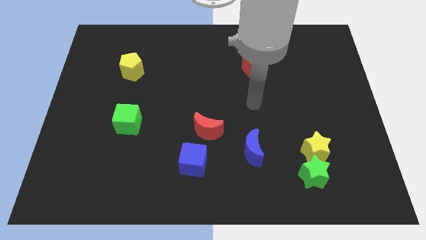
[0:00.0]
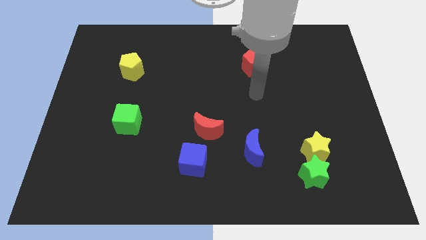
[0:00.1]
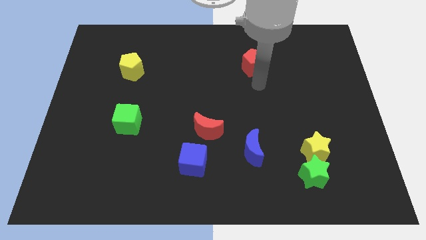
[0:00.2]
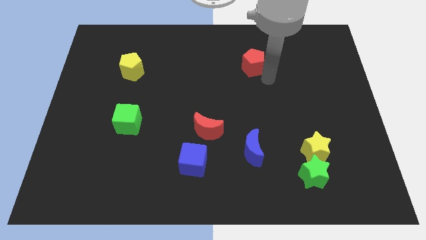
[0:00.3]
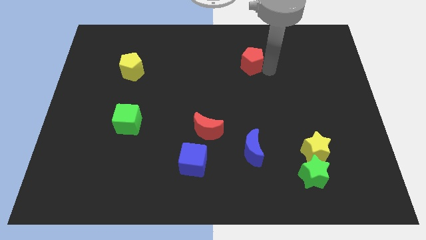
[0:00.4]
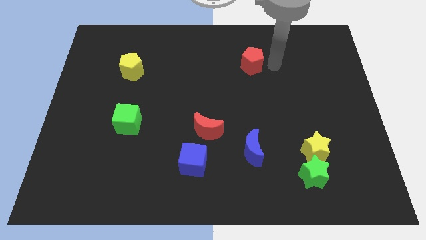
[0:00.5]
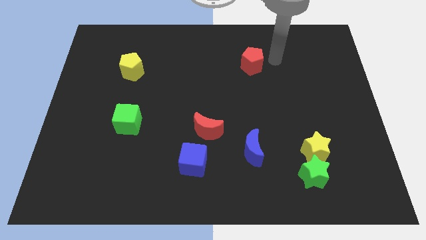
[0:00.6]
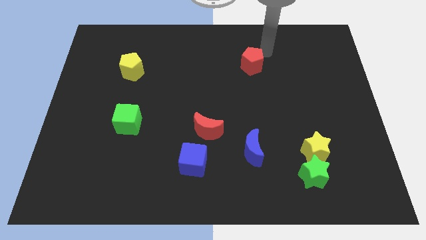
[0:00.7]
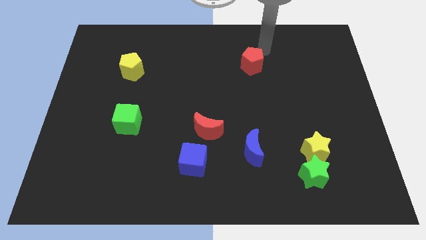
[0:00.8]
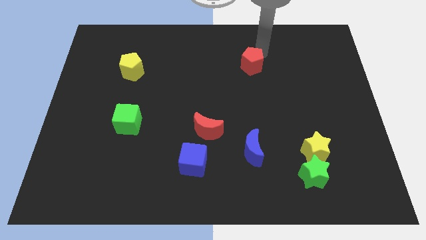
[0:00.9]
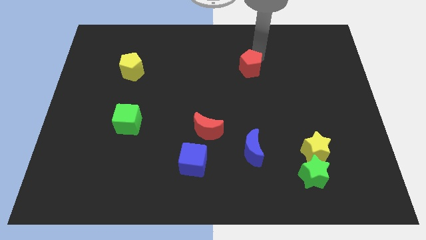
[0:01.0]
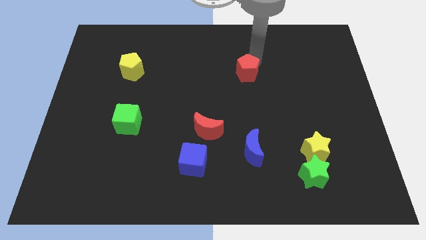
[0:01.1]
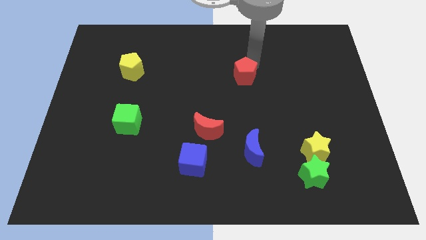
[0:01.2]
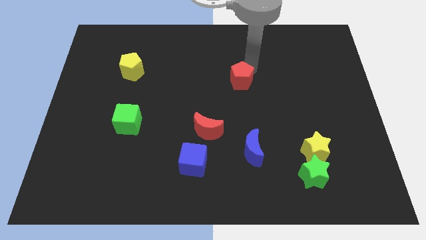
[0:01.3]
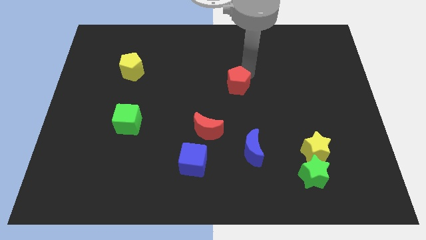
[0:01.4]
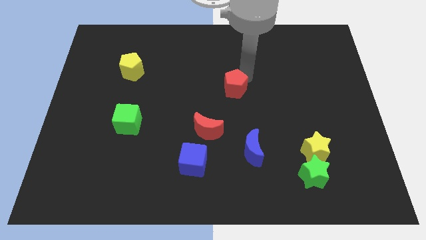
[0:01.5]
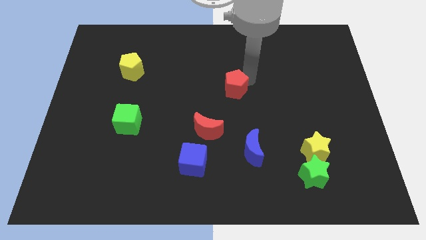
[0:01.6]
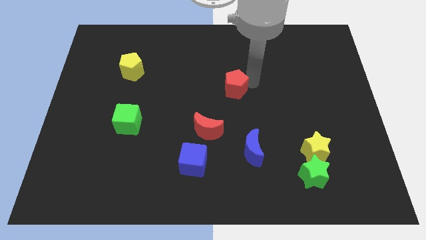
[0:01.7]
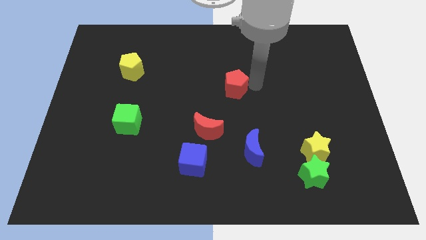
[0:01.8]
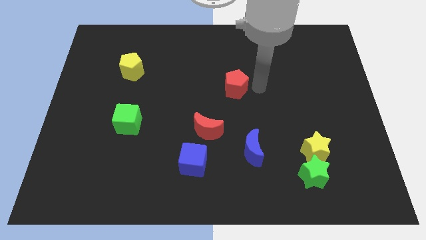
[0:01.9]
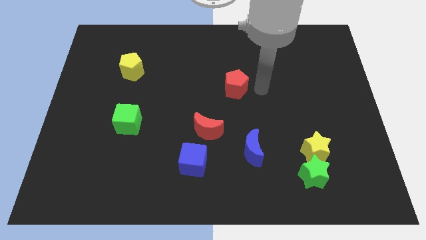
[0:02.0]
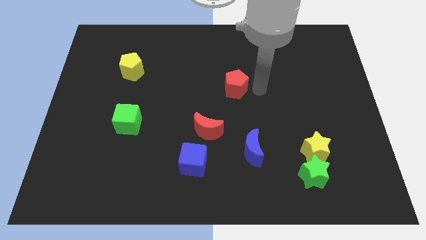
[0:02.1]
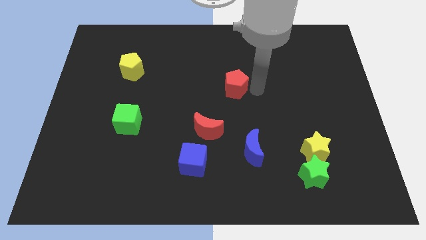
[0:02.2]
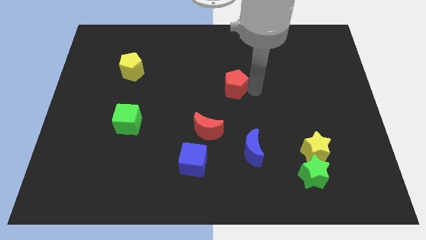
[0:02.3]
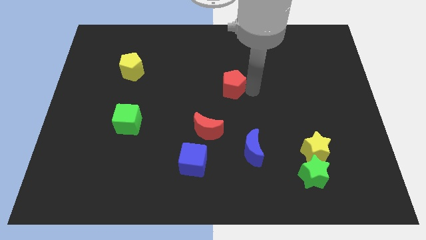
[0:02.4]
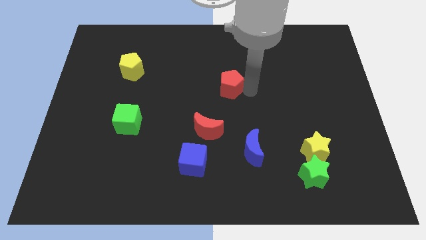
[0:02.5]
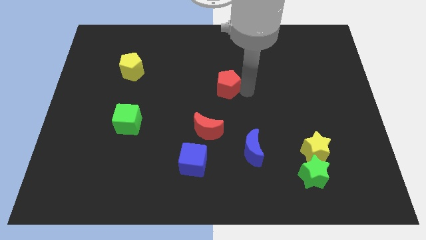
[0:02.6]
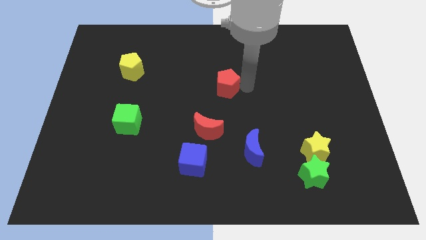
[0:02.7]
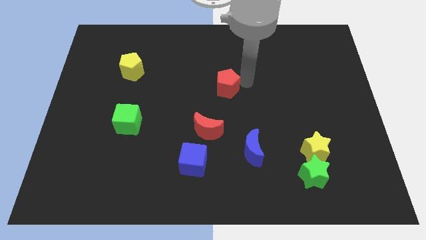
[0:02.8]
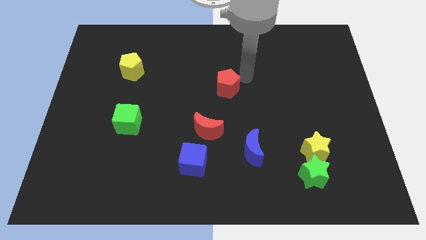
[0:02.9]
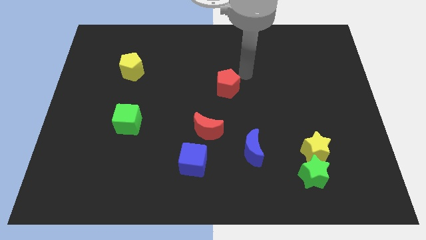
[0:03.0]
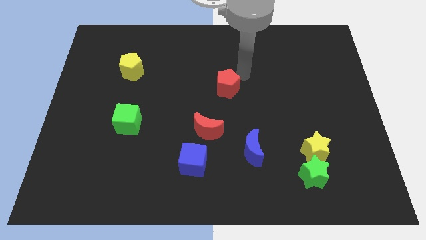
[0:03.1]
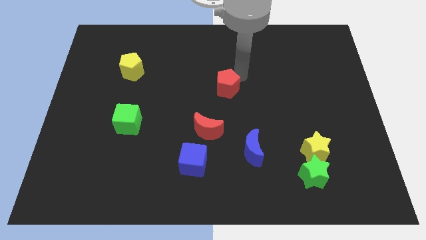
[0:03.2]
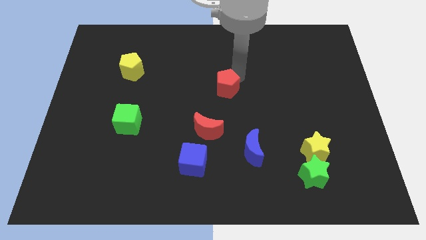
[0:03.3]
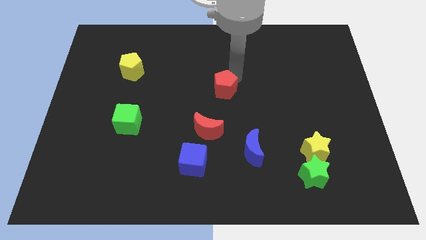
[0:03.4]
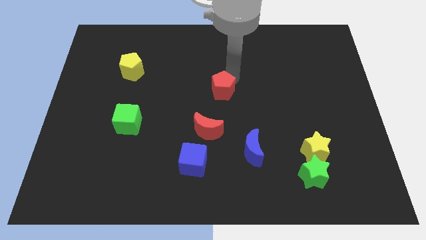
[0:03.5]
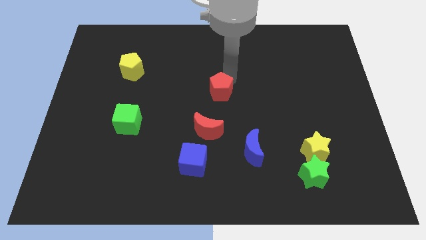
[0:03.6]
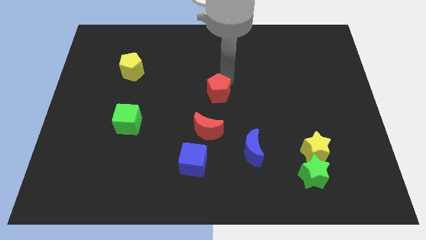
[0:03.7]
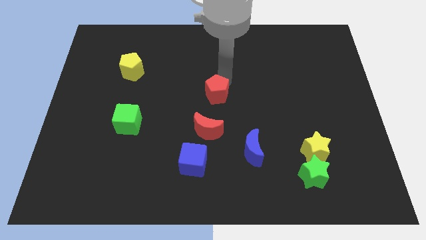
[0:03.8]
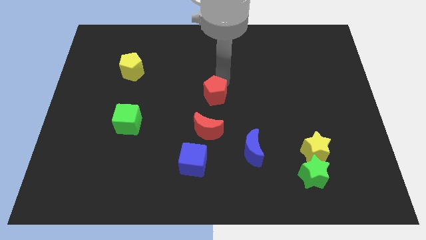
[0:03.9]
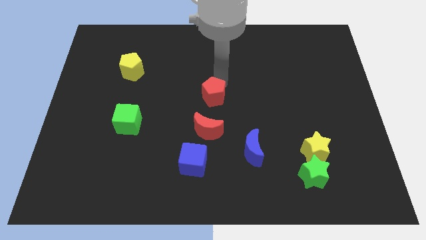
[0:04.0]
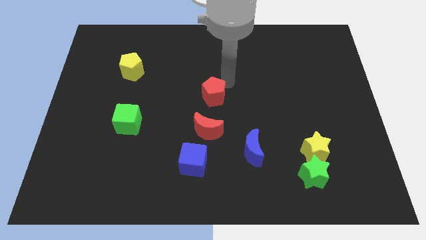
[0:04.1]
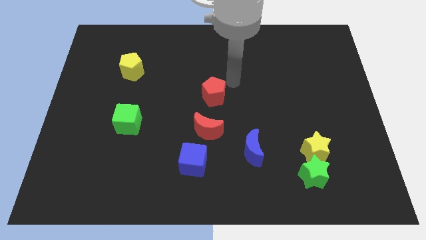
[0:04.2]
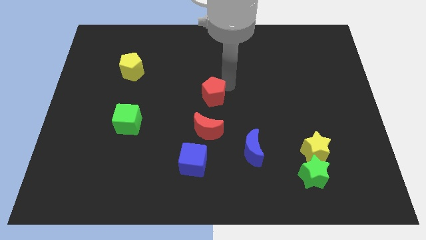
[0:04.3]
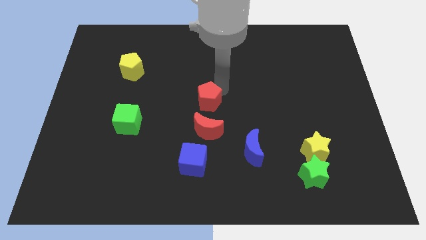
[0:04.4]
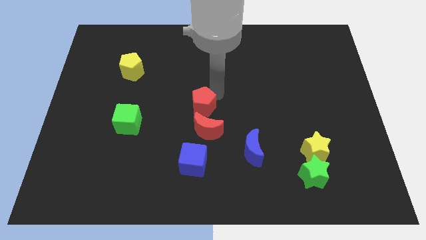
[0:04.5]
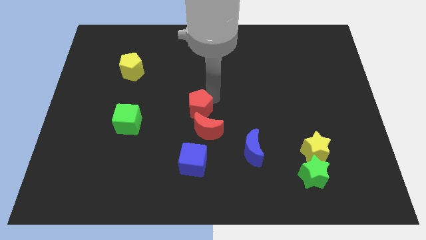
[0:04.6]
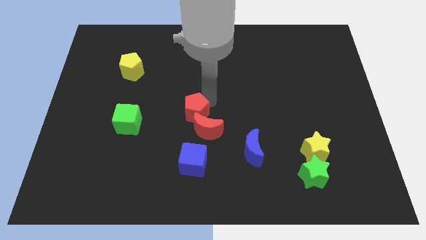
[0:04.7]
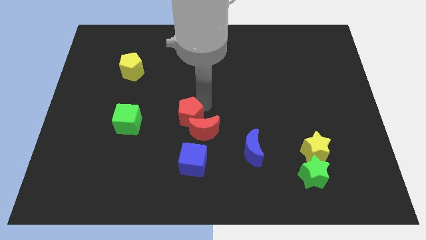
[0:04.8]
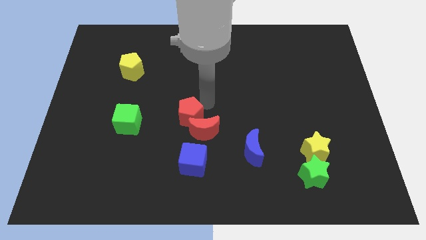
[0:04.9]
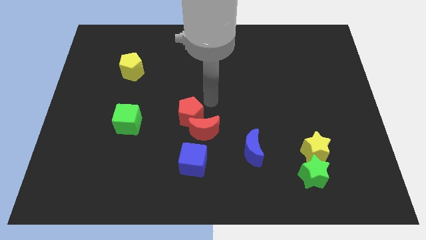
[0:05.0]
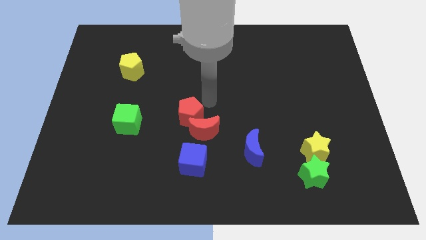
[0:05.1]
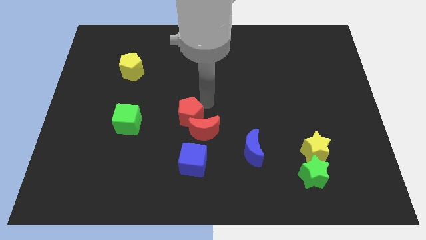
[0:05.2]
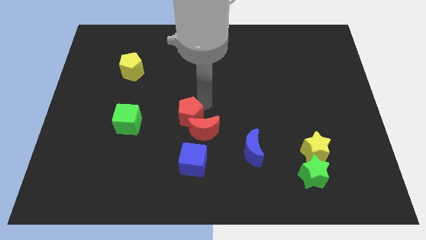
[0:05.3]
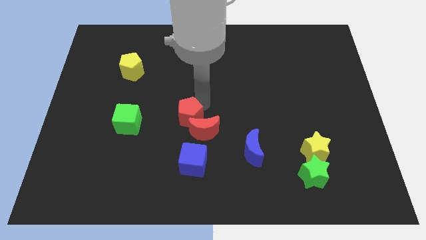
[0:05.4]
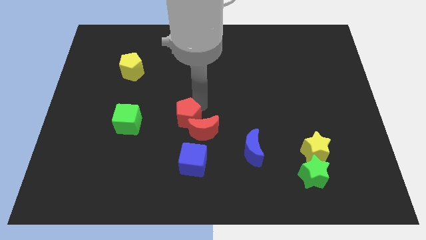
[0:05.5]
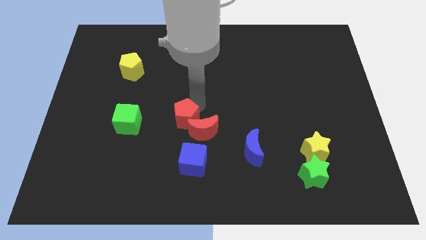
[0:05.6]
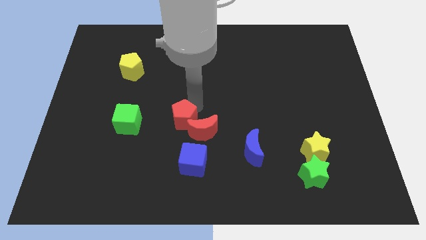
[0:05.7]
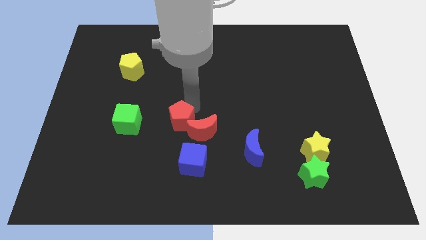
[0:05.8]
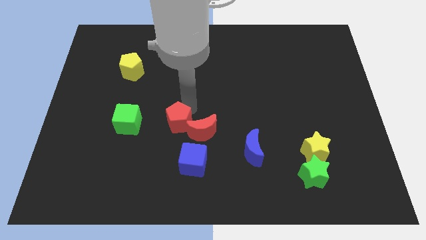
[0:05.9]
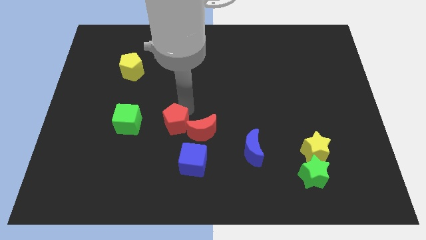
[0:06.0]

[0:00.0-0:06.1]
push the red pentagon diagonally up and to the left of the blue cube

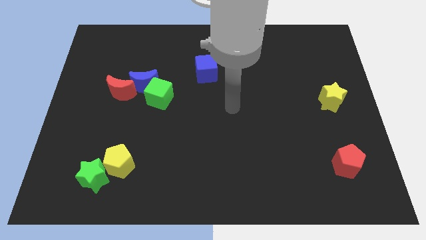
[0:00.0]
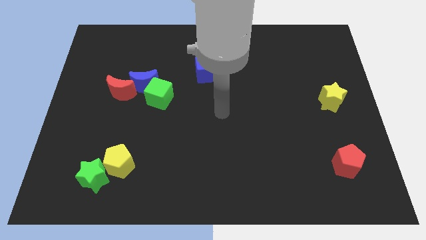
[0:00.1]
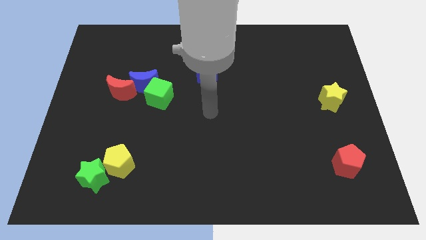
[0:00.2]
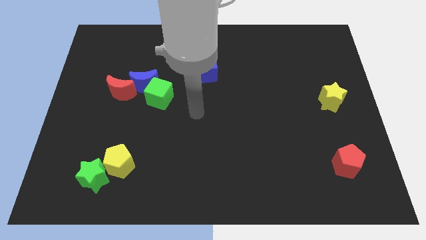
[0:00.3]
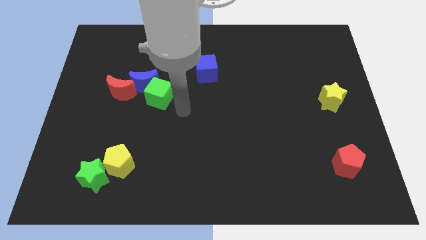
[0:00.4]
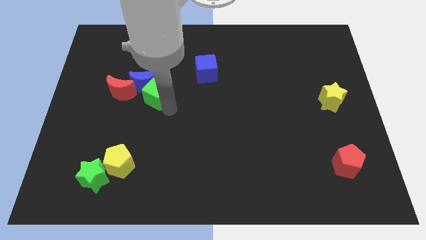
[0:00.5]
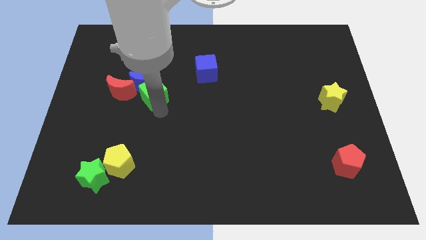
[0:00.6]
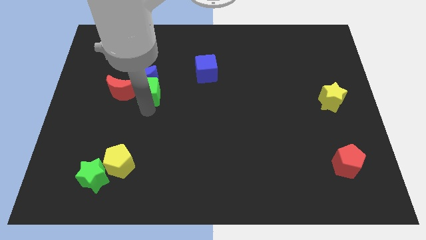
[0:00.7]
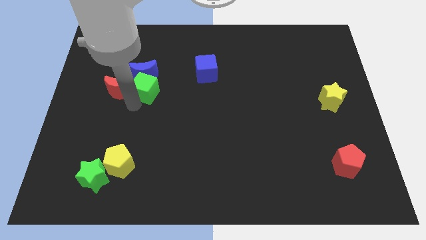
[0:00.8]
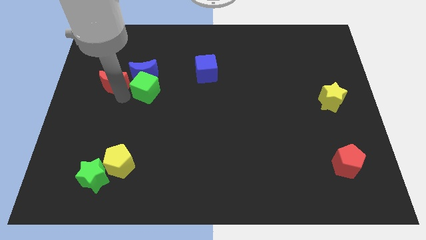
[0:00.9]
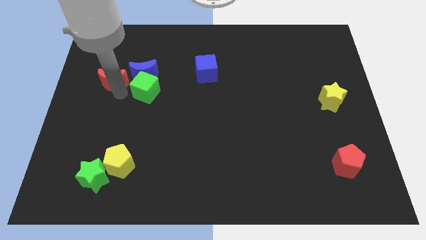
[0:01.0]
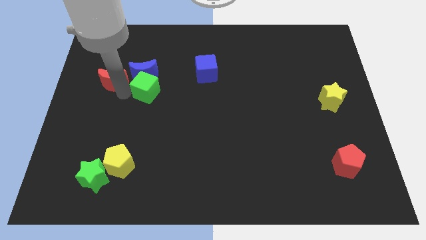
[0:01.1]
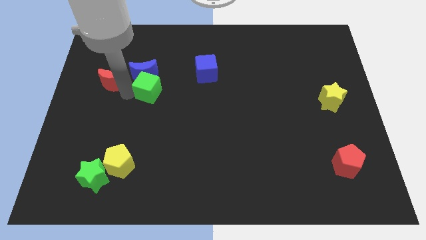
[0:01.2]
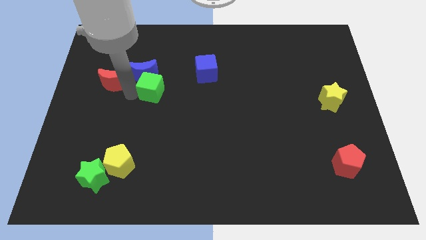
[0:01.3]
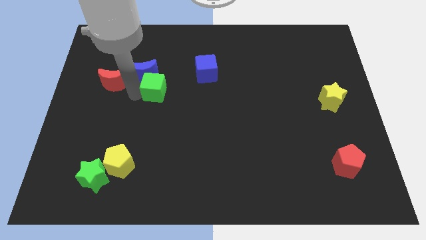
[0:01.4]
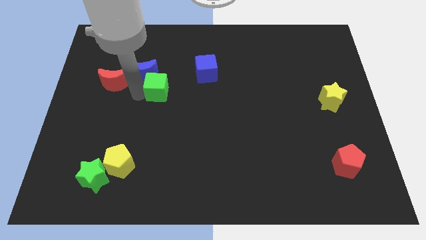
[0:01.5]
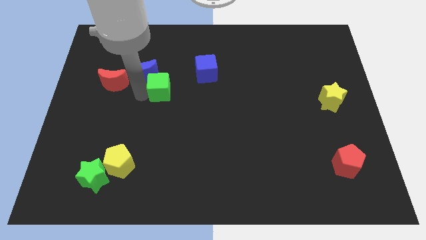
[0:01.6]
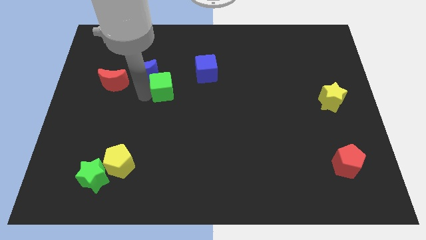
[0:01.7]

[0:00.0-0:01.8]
slide the green cube diagonally down and to the left of the blue cube
